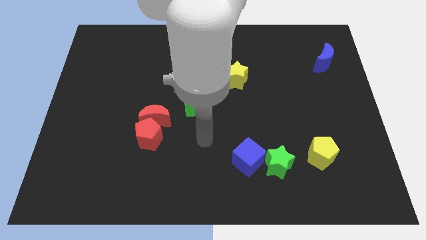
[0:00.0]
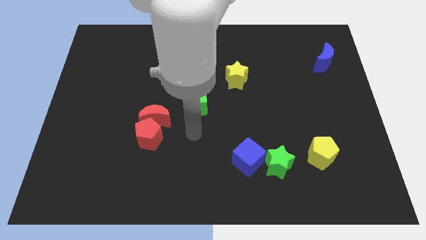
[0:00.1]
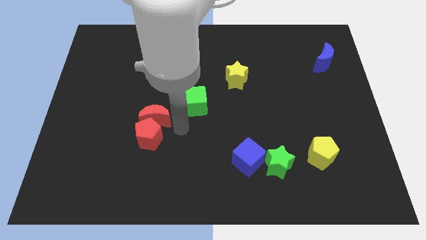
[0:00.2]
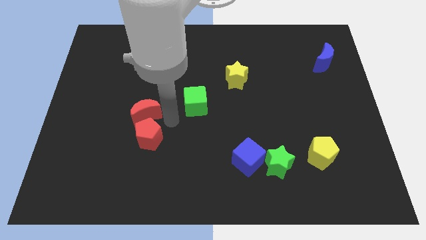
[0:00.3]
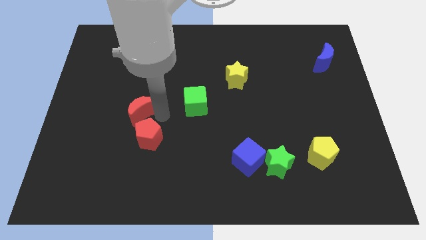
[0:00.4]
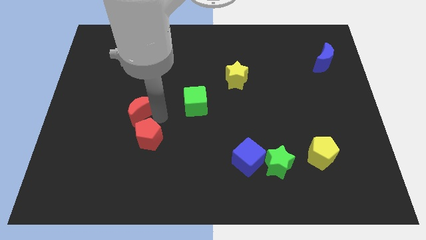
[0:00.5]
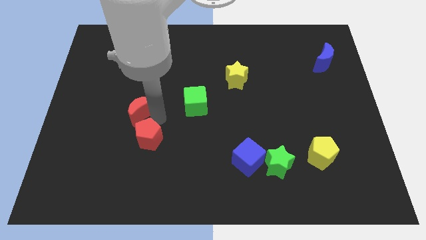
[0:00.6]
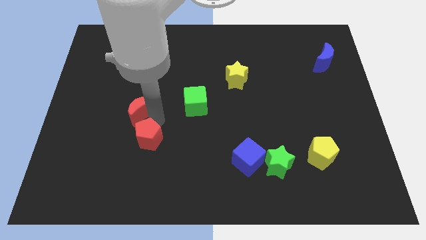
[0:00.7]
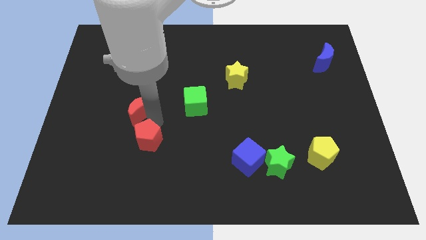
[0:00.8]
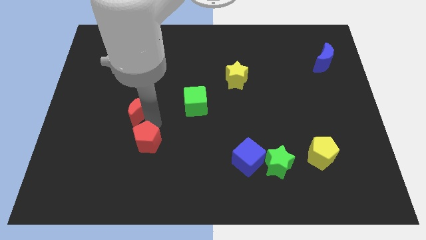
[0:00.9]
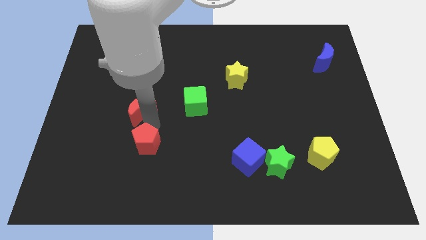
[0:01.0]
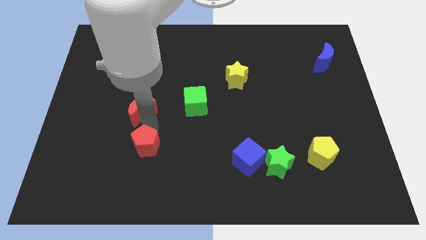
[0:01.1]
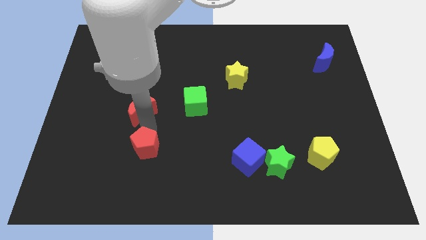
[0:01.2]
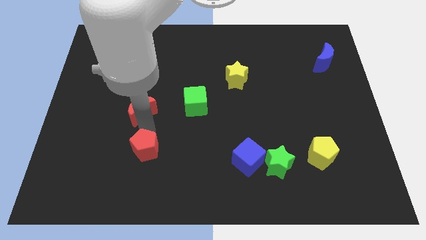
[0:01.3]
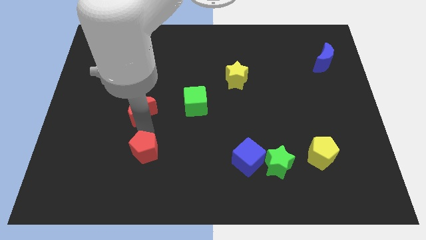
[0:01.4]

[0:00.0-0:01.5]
move the red pentagon away from the red moon

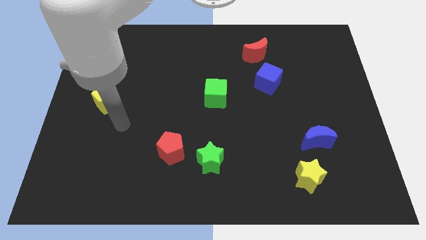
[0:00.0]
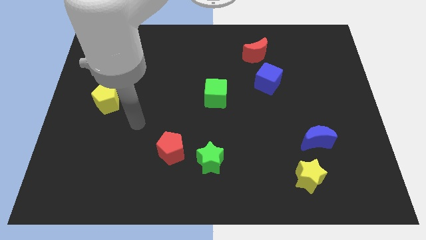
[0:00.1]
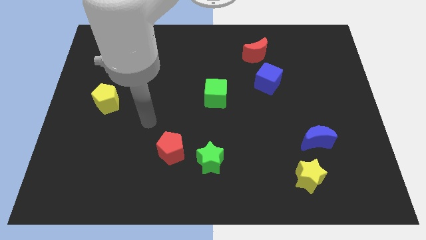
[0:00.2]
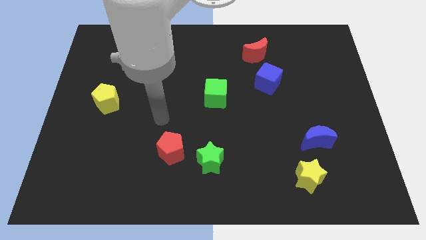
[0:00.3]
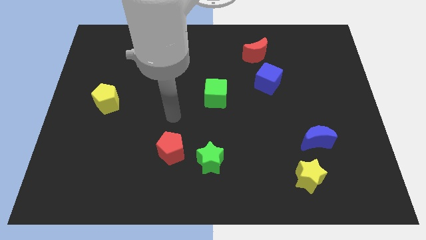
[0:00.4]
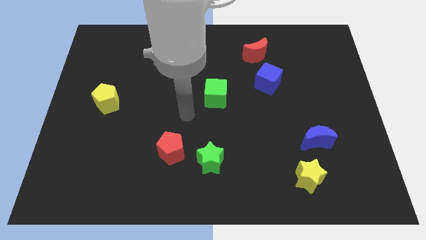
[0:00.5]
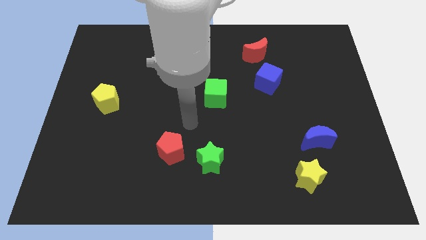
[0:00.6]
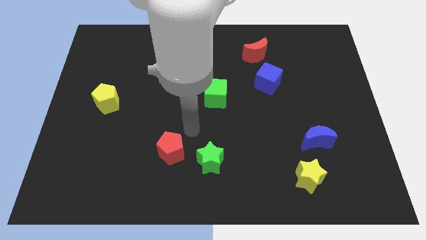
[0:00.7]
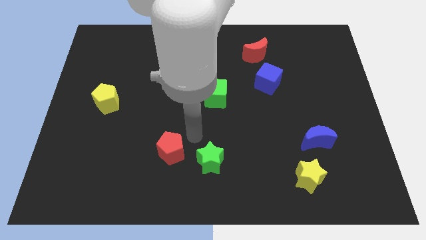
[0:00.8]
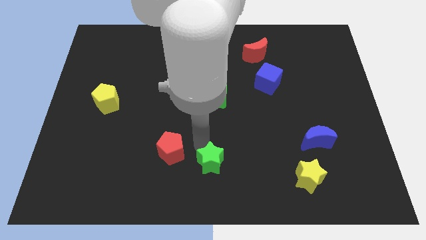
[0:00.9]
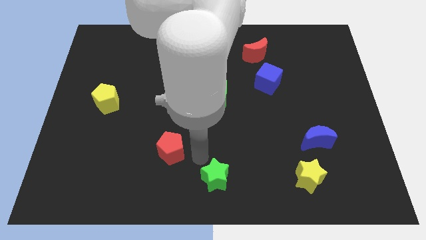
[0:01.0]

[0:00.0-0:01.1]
move the red pentagon away from the green star

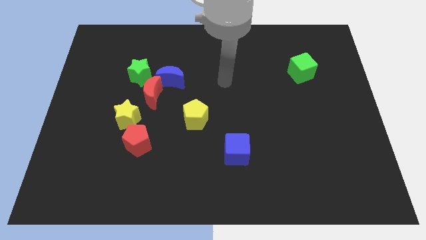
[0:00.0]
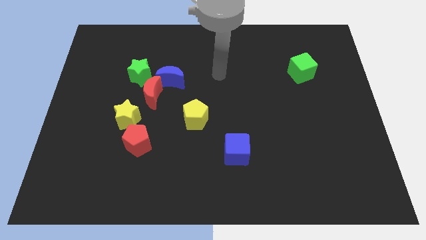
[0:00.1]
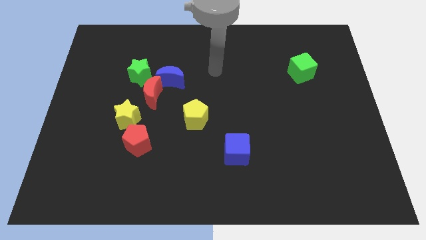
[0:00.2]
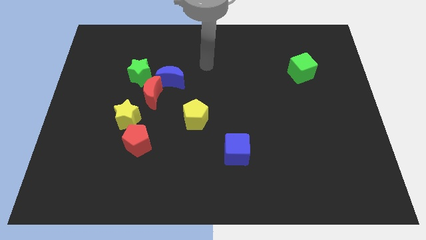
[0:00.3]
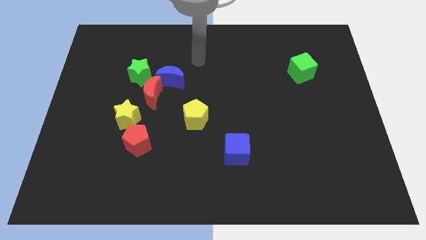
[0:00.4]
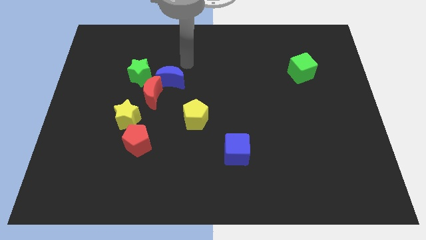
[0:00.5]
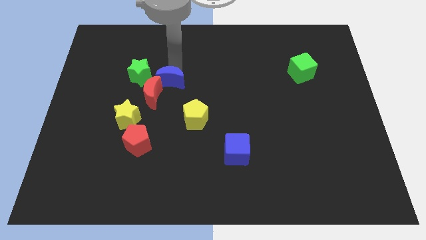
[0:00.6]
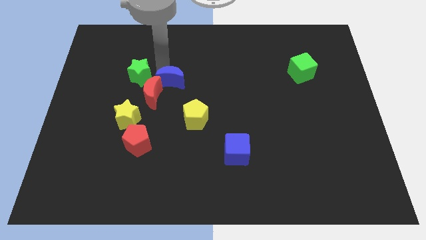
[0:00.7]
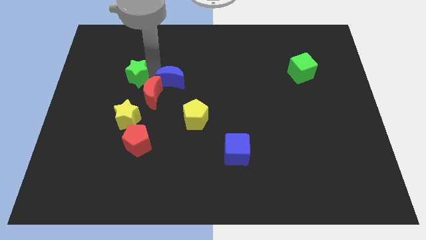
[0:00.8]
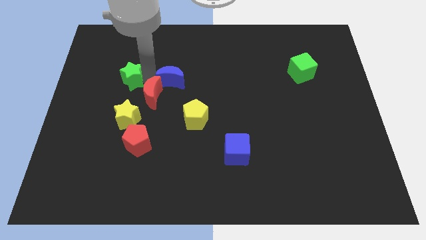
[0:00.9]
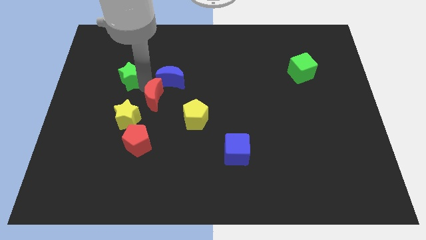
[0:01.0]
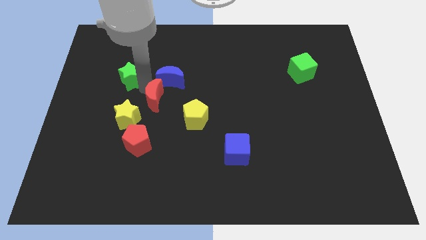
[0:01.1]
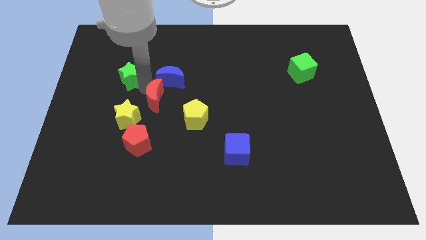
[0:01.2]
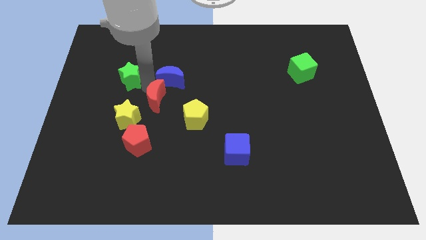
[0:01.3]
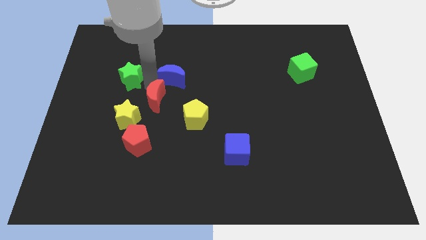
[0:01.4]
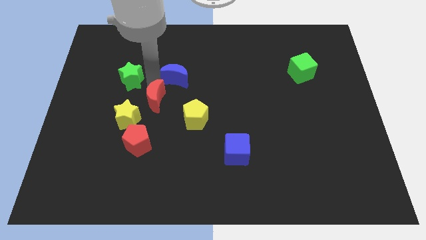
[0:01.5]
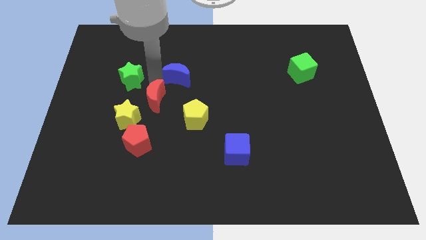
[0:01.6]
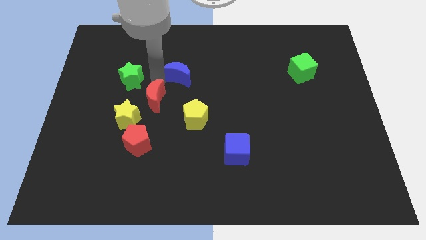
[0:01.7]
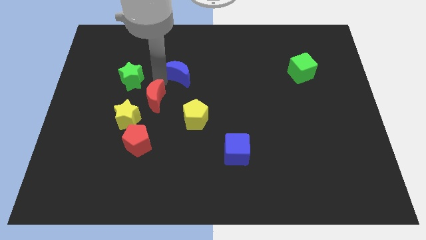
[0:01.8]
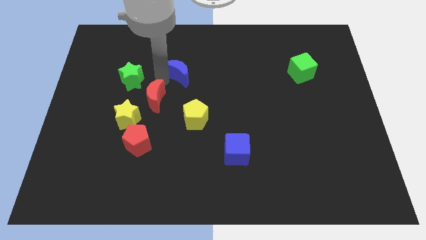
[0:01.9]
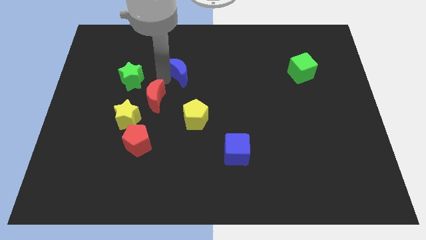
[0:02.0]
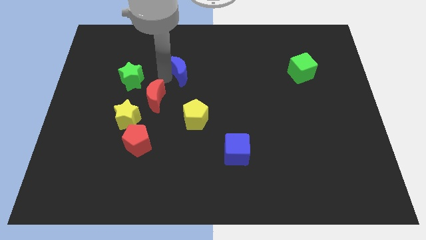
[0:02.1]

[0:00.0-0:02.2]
move the blue moon away from the red moon and green star

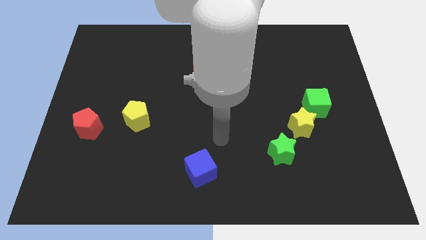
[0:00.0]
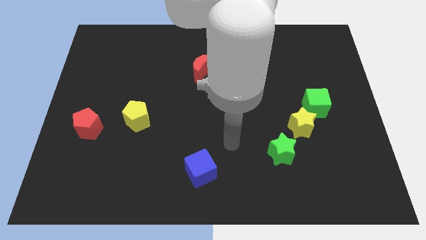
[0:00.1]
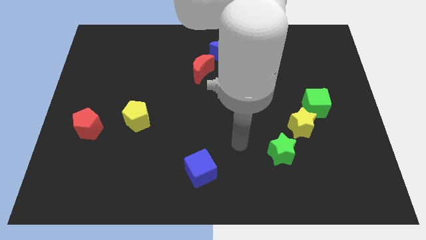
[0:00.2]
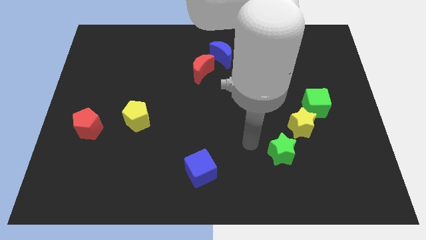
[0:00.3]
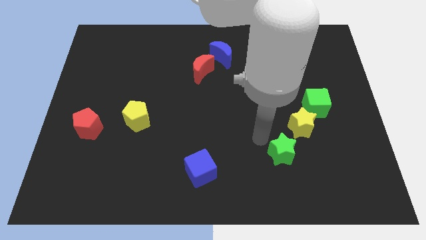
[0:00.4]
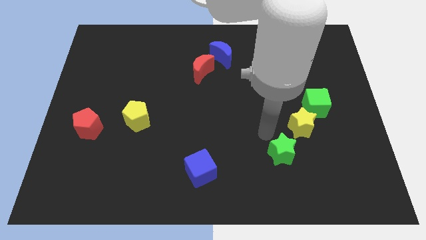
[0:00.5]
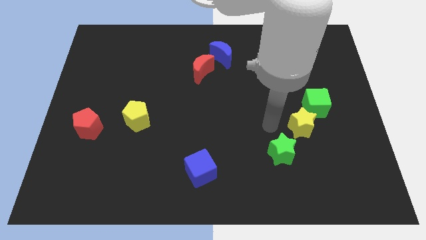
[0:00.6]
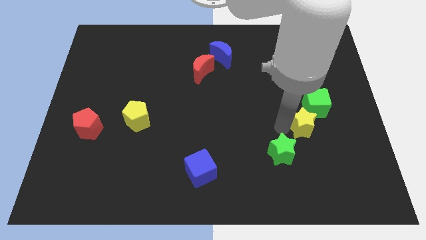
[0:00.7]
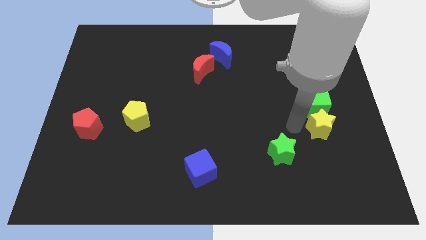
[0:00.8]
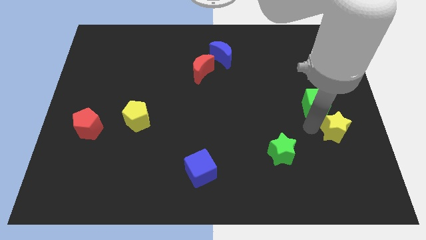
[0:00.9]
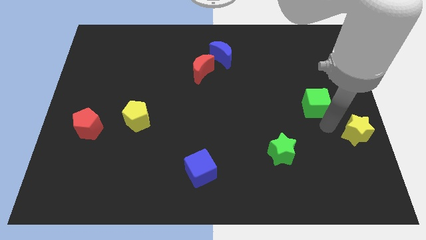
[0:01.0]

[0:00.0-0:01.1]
move the green cube away from the yellow star

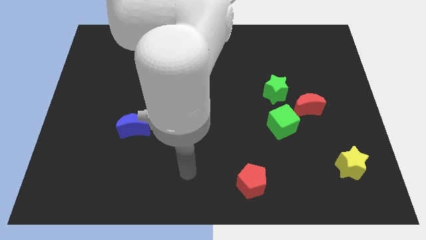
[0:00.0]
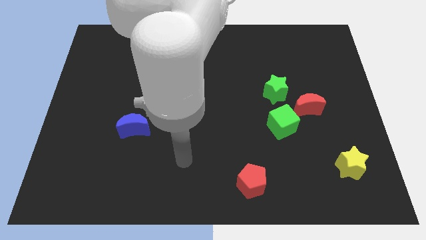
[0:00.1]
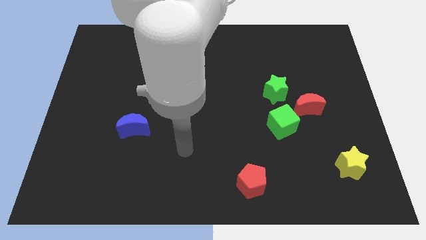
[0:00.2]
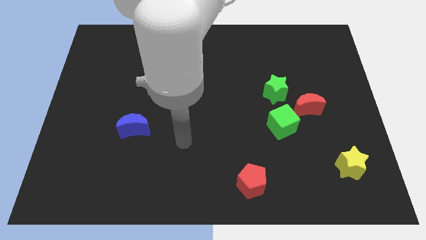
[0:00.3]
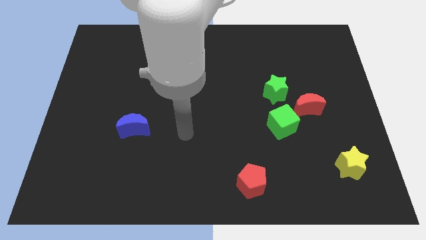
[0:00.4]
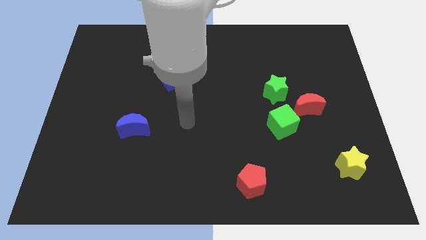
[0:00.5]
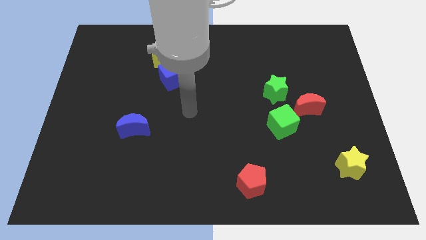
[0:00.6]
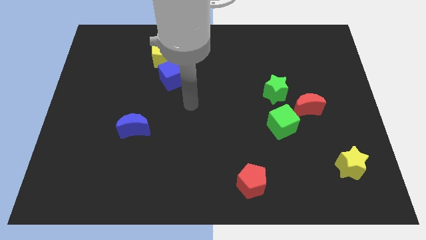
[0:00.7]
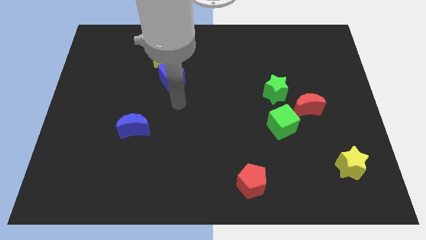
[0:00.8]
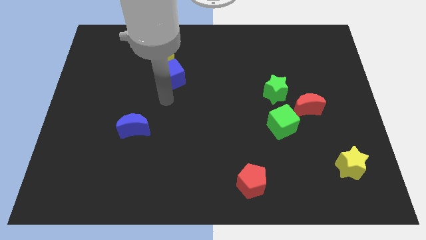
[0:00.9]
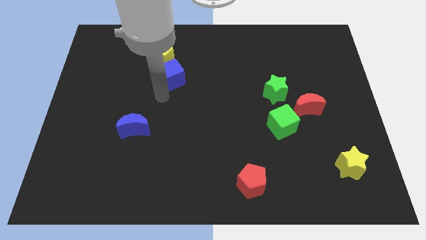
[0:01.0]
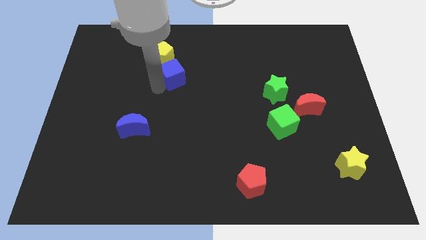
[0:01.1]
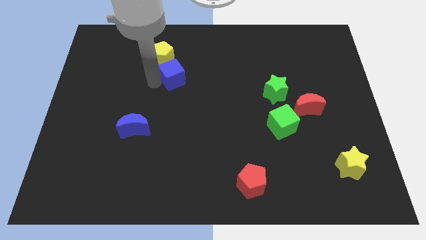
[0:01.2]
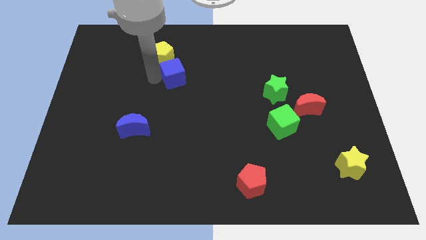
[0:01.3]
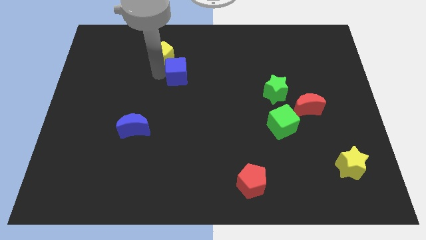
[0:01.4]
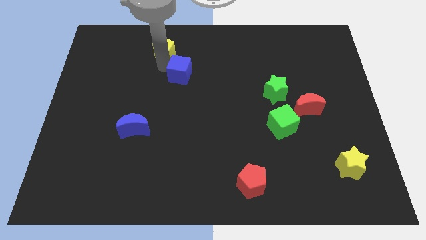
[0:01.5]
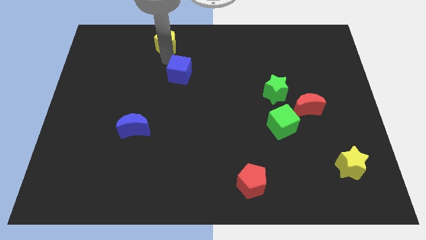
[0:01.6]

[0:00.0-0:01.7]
move the blue cube away from the yellow pentagon

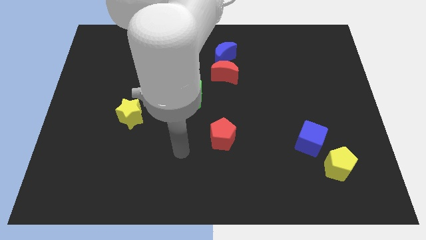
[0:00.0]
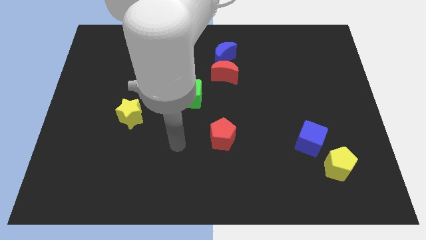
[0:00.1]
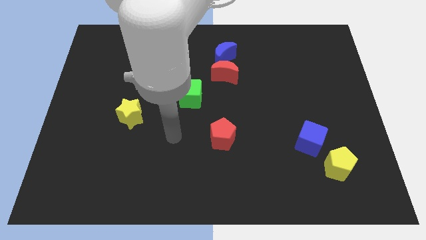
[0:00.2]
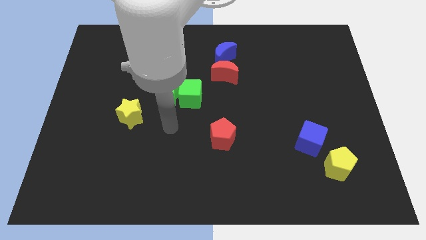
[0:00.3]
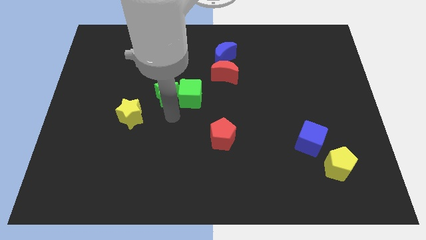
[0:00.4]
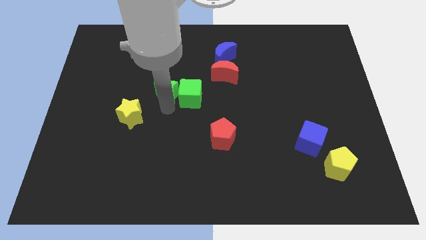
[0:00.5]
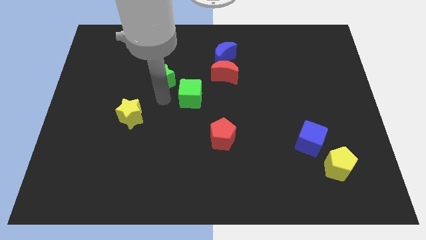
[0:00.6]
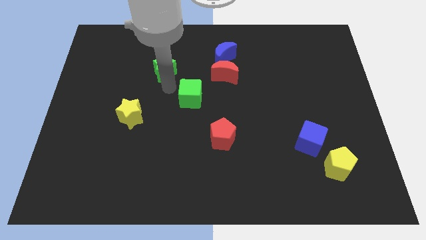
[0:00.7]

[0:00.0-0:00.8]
move the green cube away from the green star

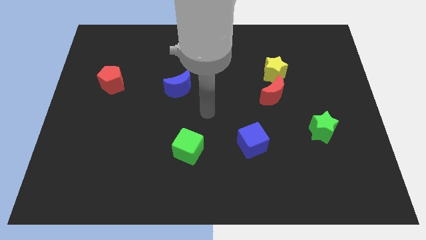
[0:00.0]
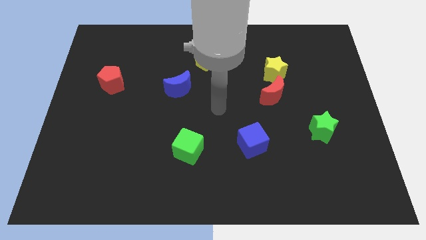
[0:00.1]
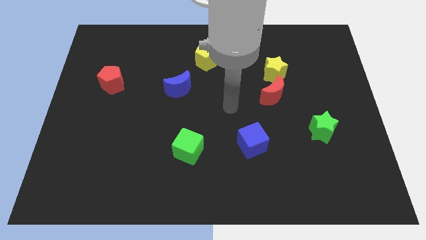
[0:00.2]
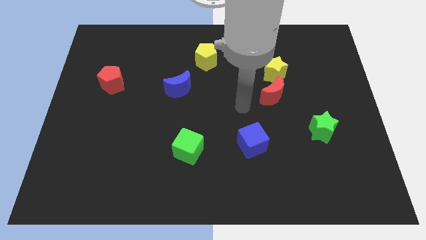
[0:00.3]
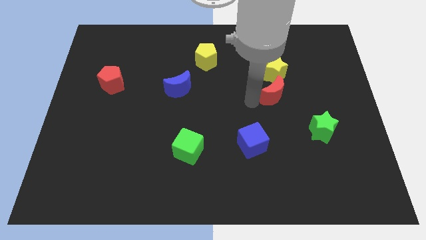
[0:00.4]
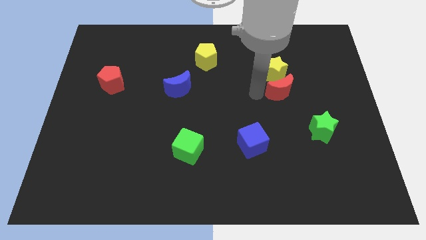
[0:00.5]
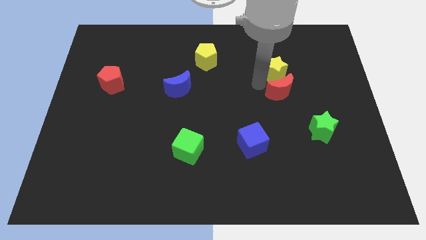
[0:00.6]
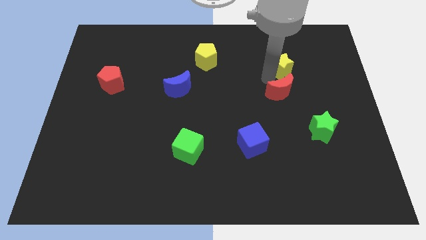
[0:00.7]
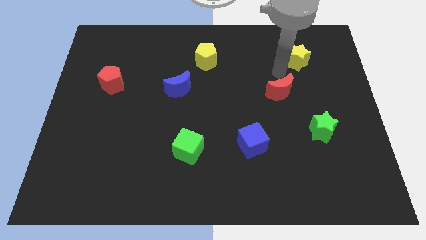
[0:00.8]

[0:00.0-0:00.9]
separate the red moon from the yellow star

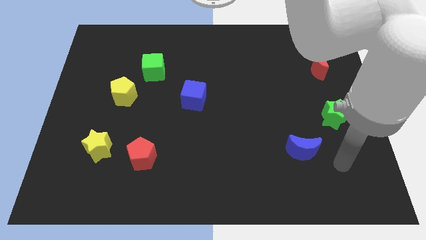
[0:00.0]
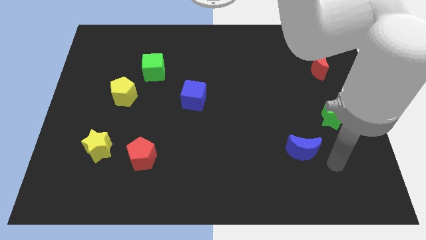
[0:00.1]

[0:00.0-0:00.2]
pull the red pentagon apart from the yellow star
